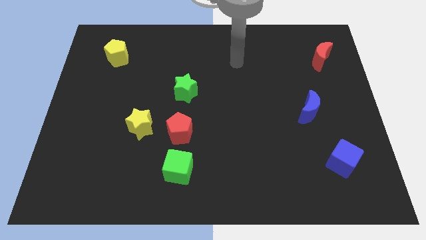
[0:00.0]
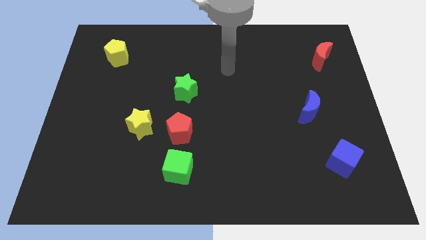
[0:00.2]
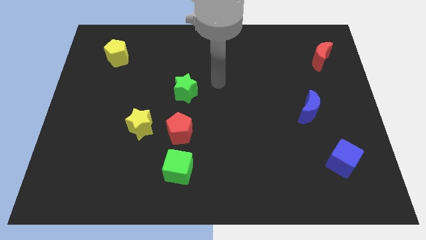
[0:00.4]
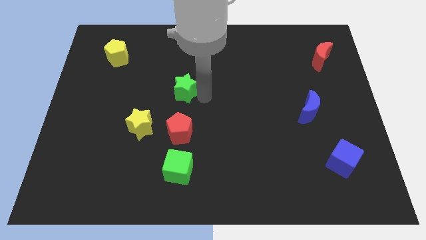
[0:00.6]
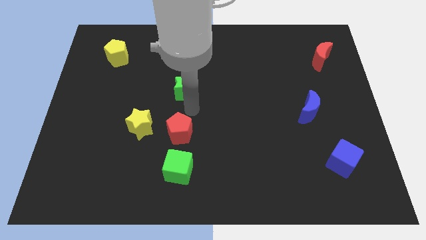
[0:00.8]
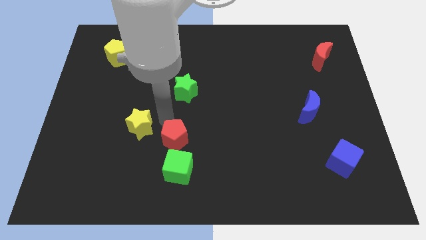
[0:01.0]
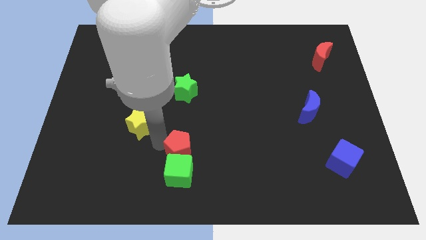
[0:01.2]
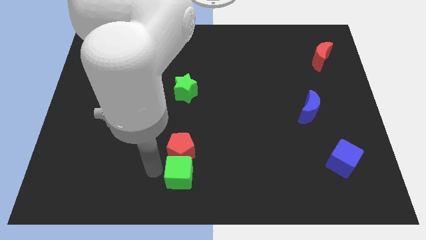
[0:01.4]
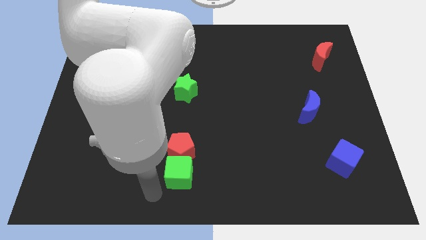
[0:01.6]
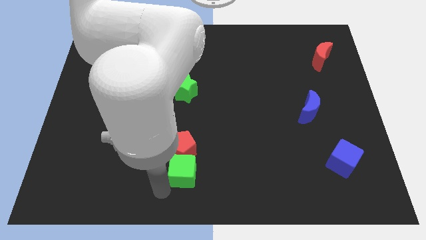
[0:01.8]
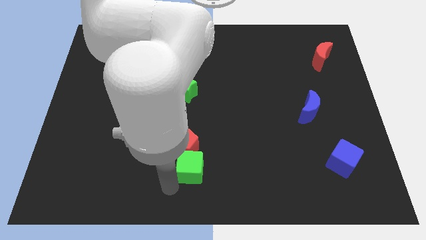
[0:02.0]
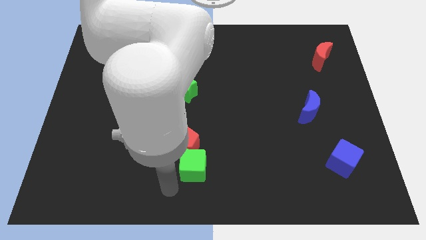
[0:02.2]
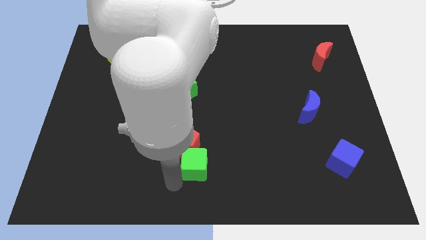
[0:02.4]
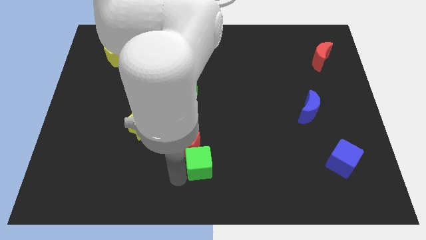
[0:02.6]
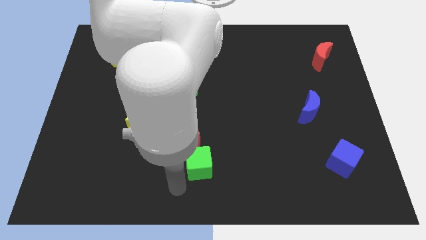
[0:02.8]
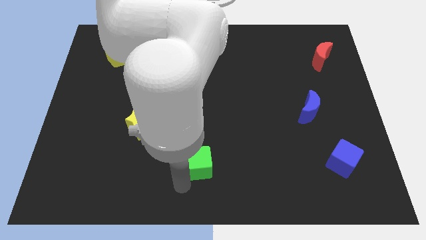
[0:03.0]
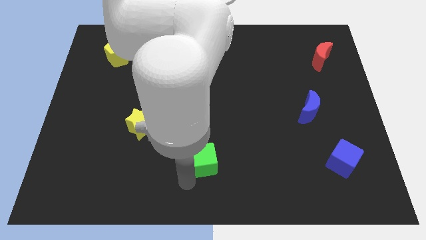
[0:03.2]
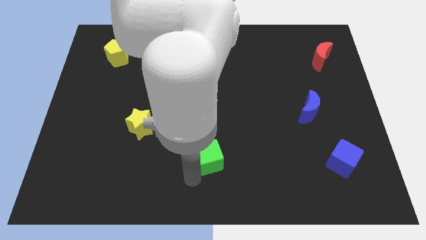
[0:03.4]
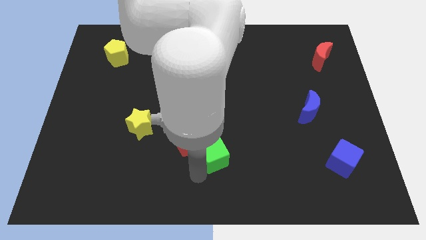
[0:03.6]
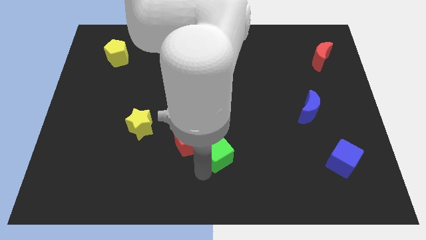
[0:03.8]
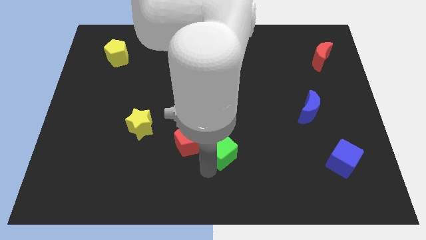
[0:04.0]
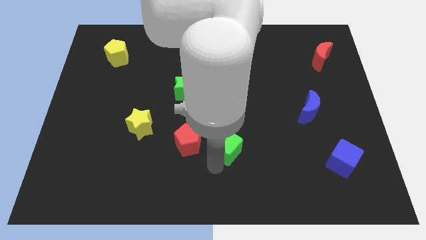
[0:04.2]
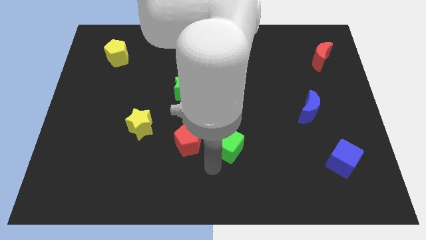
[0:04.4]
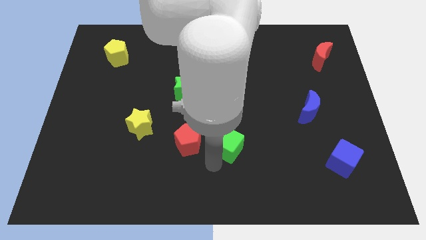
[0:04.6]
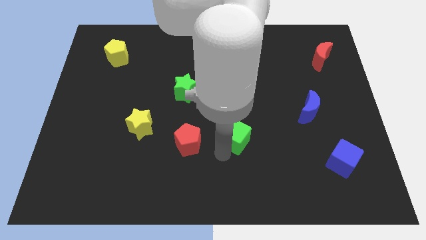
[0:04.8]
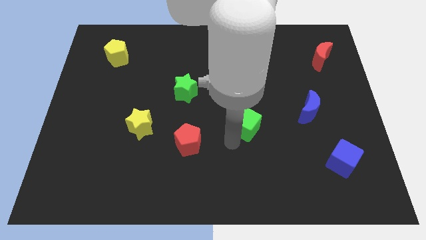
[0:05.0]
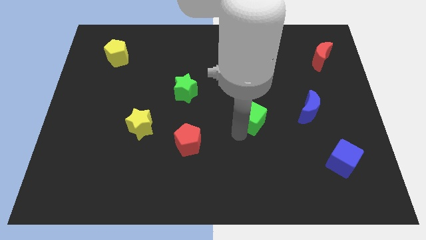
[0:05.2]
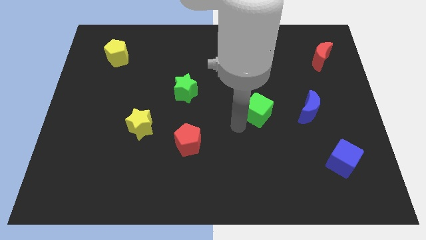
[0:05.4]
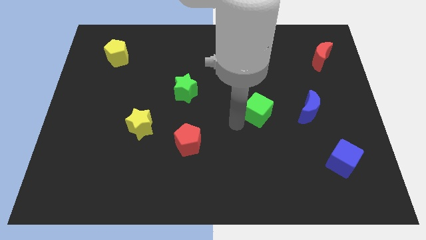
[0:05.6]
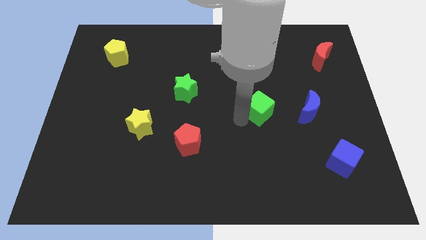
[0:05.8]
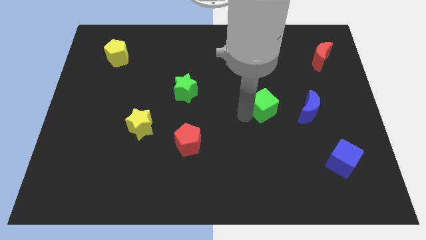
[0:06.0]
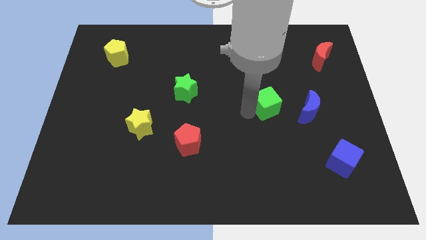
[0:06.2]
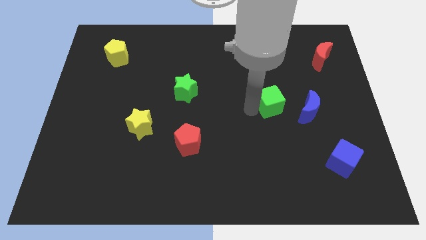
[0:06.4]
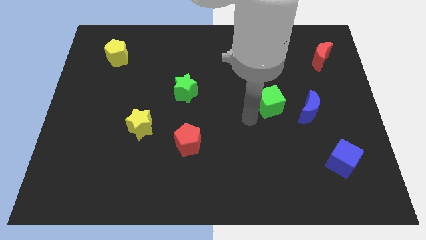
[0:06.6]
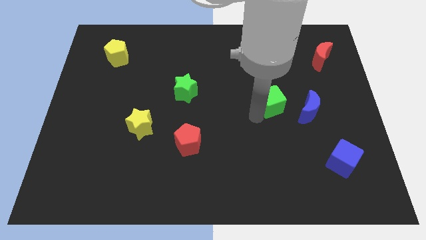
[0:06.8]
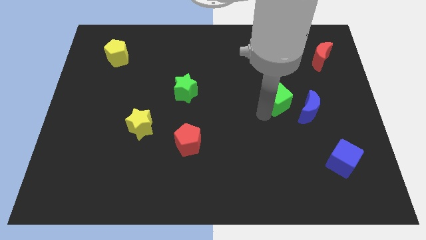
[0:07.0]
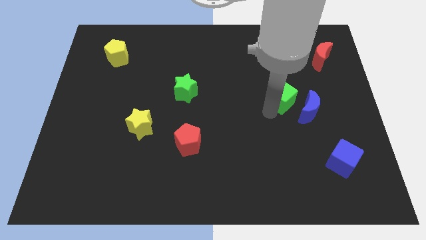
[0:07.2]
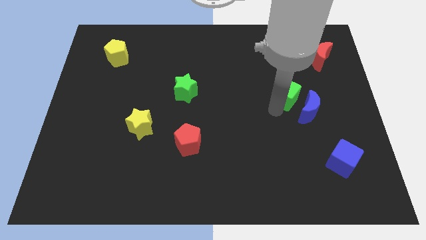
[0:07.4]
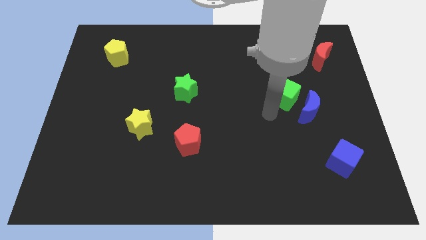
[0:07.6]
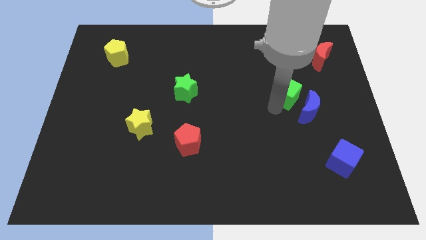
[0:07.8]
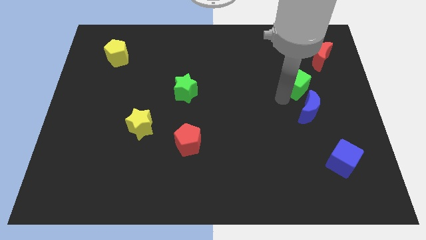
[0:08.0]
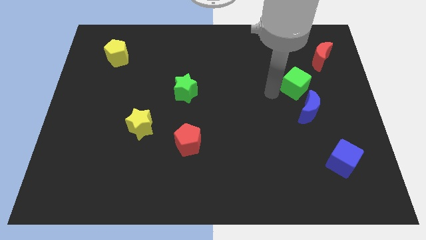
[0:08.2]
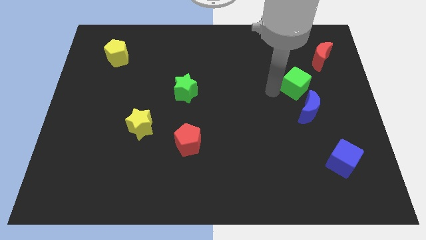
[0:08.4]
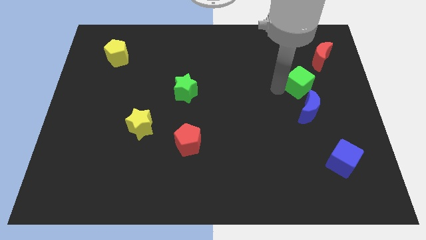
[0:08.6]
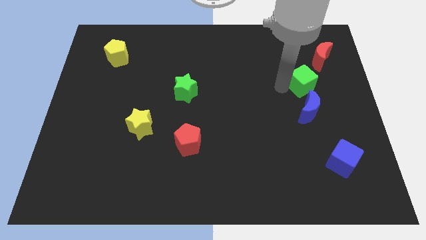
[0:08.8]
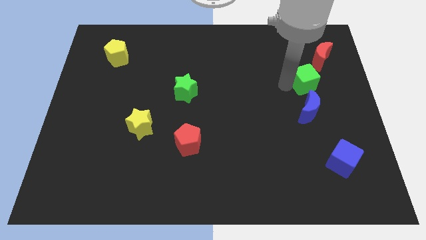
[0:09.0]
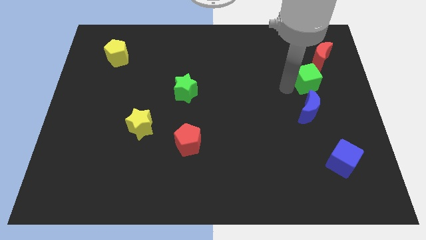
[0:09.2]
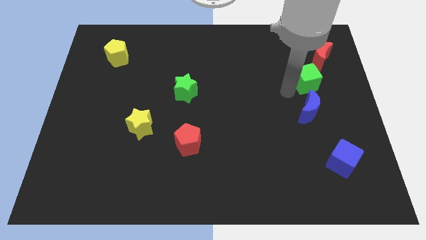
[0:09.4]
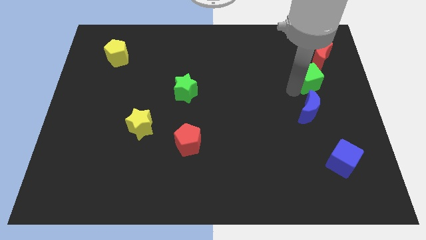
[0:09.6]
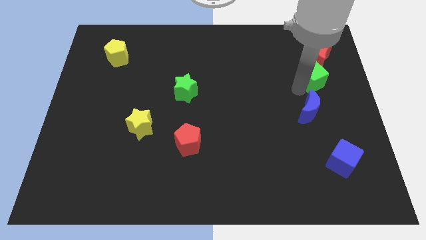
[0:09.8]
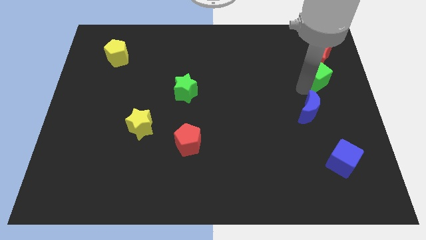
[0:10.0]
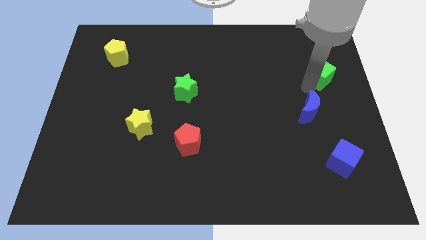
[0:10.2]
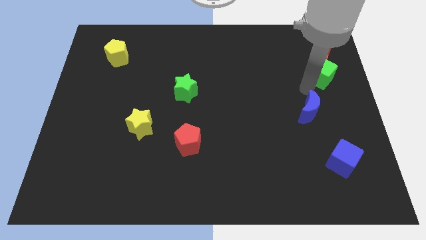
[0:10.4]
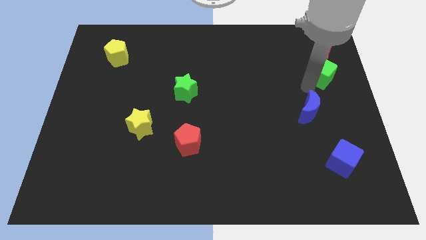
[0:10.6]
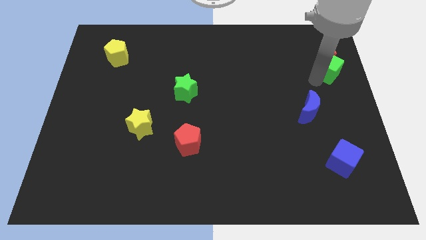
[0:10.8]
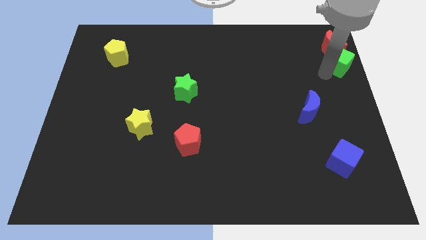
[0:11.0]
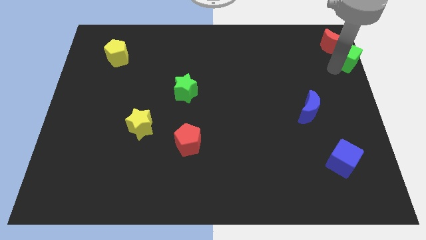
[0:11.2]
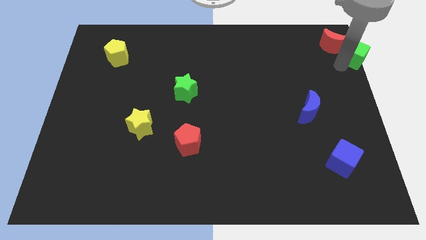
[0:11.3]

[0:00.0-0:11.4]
move the green cube to the top right

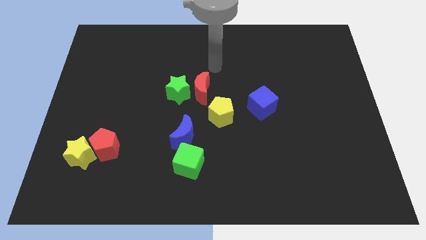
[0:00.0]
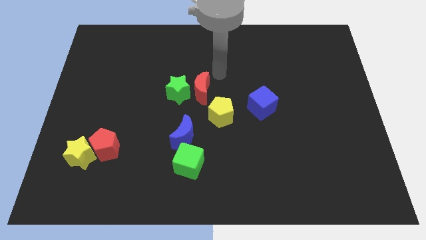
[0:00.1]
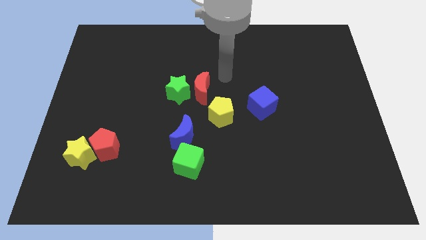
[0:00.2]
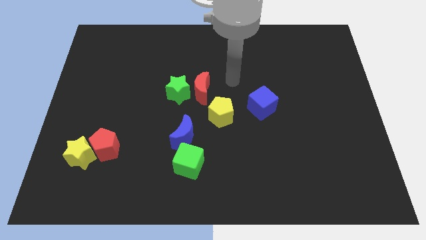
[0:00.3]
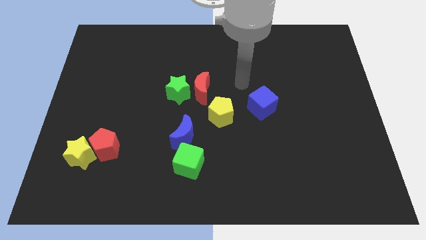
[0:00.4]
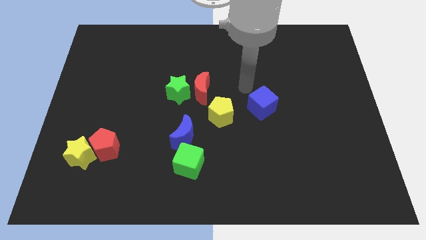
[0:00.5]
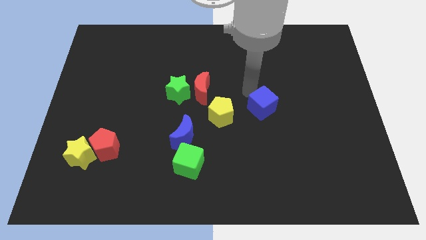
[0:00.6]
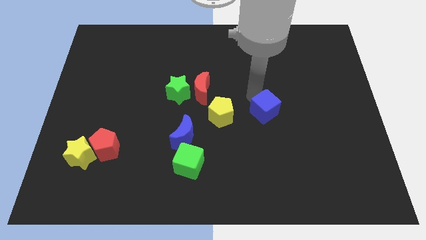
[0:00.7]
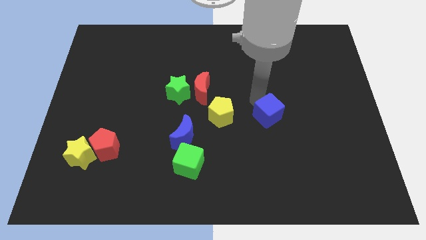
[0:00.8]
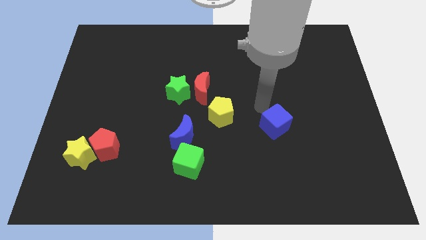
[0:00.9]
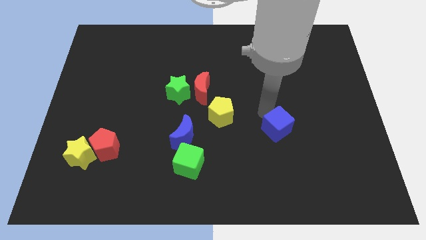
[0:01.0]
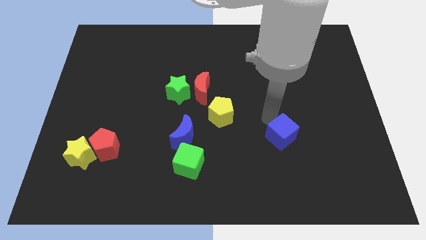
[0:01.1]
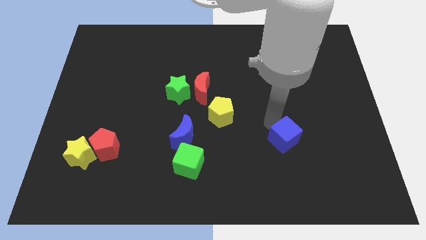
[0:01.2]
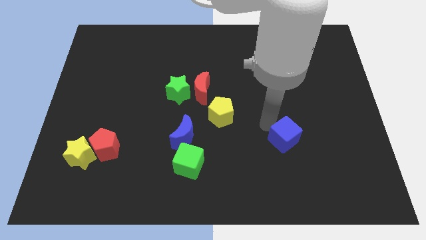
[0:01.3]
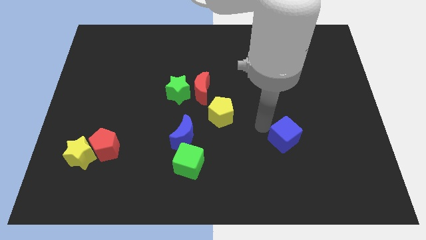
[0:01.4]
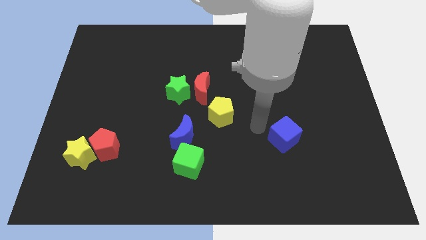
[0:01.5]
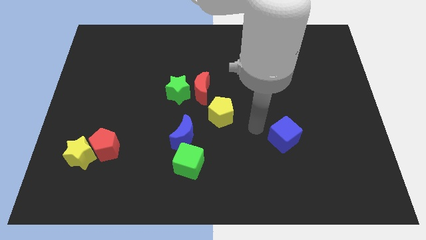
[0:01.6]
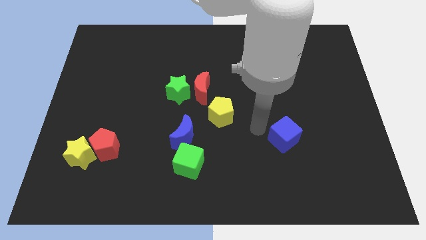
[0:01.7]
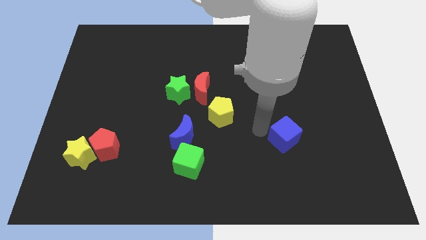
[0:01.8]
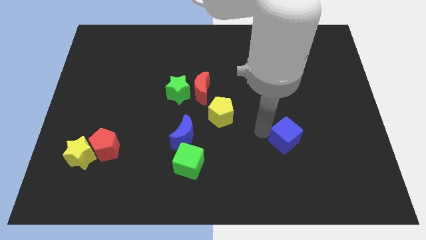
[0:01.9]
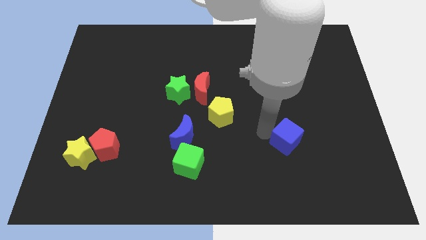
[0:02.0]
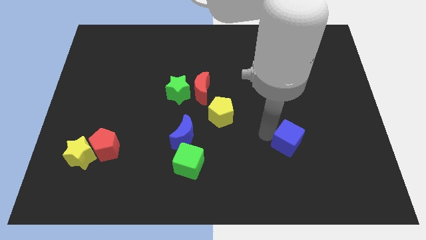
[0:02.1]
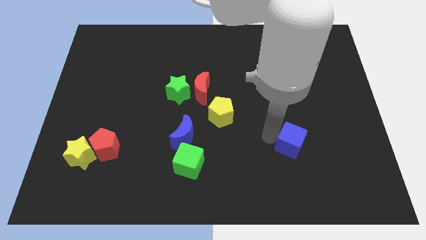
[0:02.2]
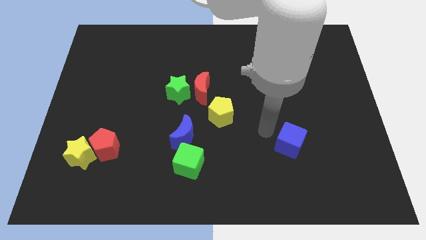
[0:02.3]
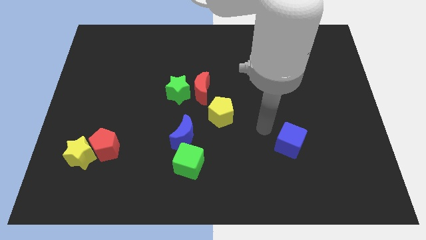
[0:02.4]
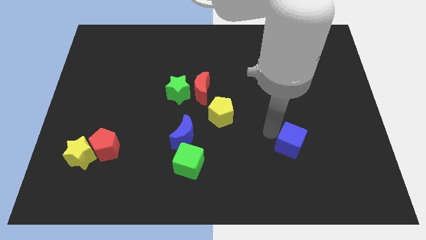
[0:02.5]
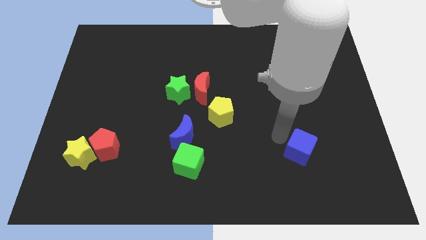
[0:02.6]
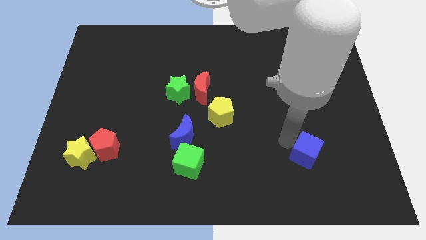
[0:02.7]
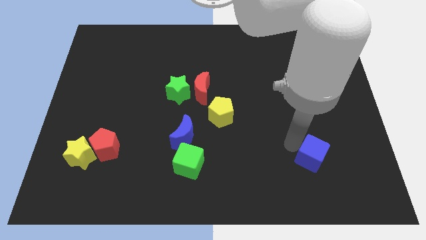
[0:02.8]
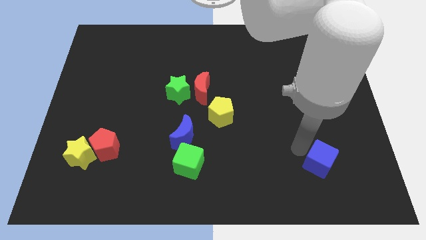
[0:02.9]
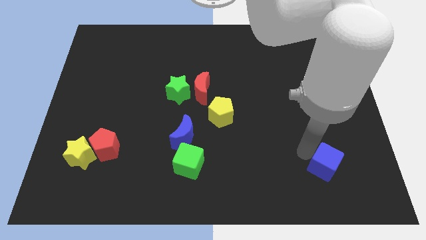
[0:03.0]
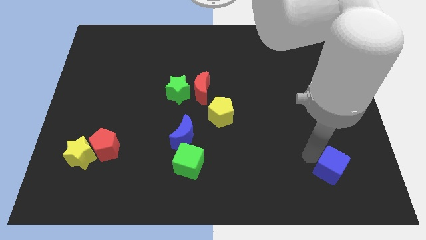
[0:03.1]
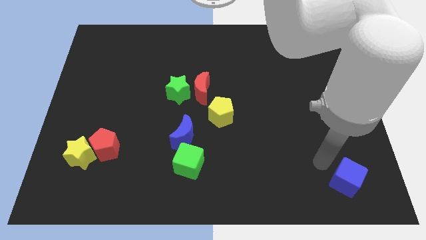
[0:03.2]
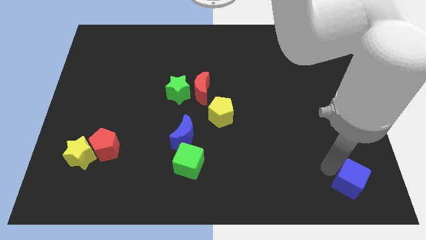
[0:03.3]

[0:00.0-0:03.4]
put the blue cube to the lower right corner
